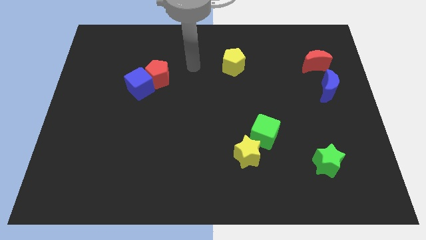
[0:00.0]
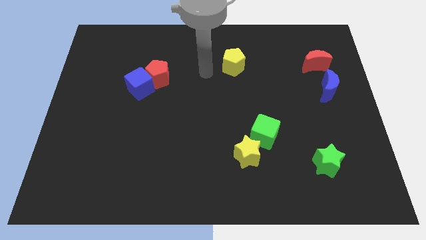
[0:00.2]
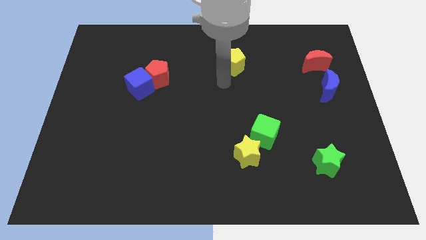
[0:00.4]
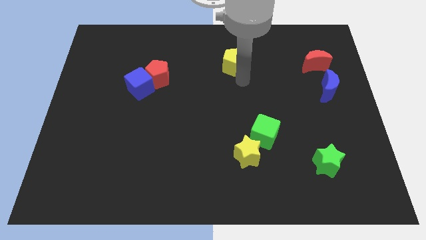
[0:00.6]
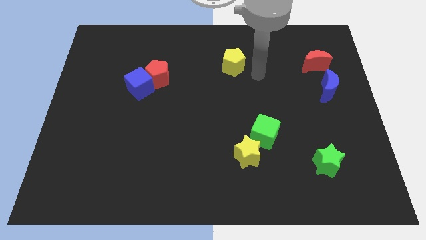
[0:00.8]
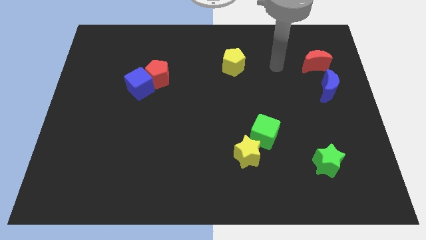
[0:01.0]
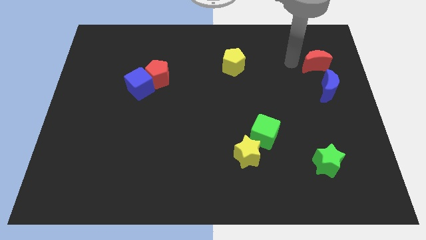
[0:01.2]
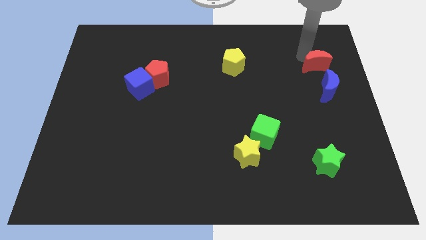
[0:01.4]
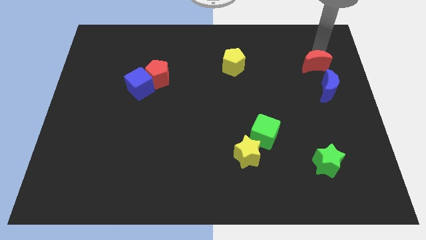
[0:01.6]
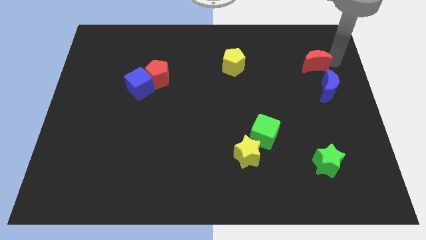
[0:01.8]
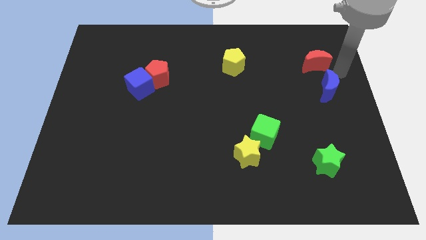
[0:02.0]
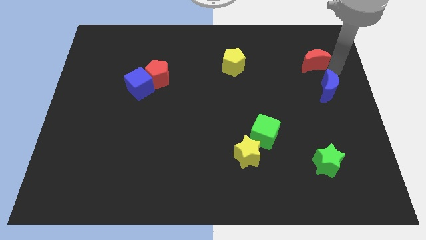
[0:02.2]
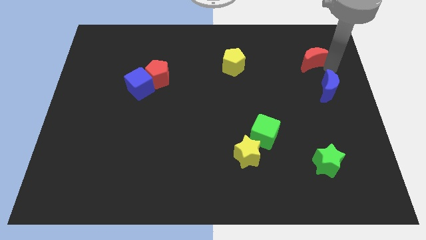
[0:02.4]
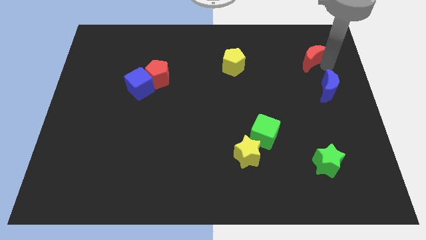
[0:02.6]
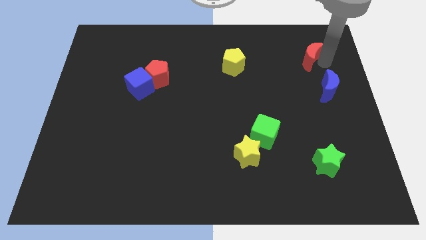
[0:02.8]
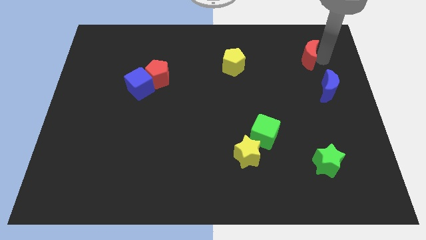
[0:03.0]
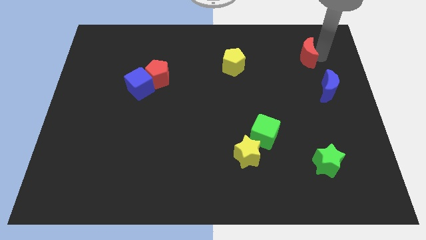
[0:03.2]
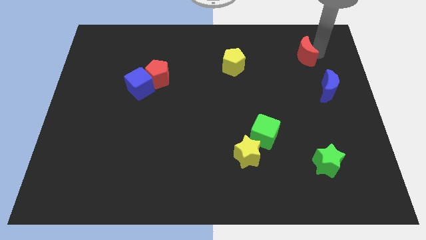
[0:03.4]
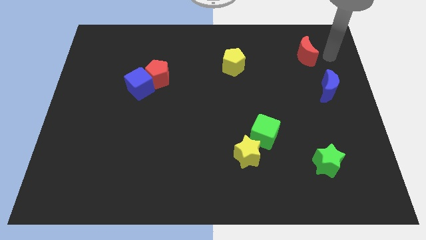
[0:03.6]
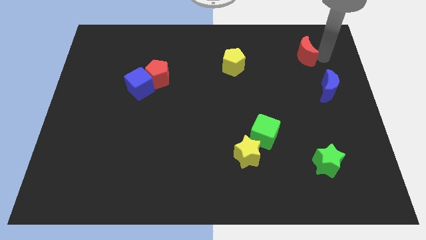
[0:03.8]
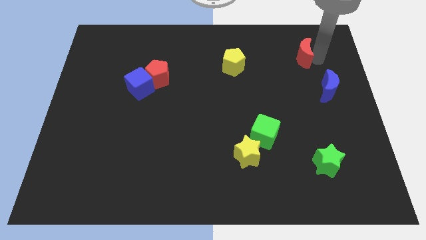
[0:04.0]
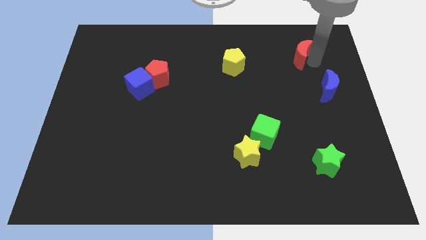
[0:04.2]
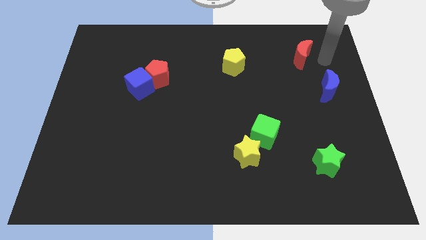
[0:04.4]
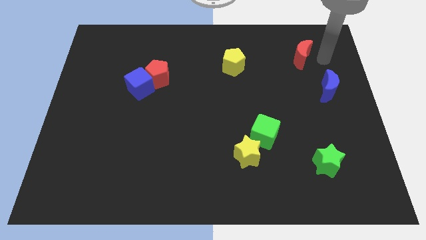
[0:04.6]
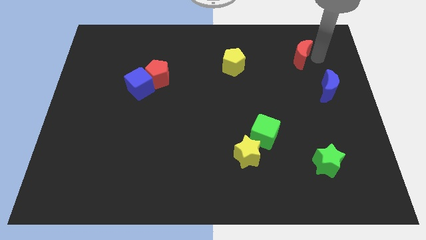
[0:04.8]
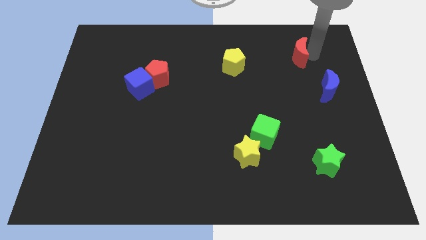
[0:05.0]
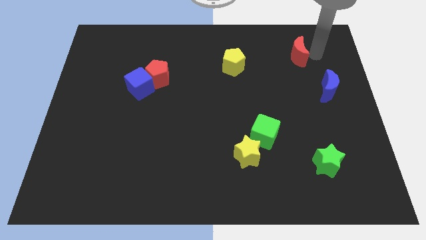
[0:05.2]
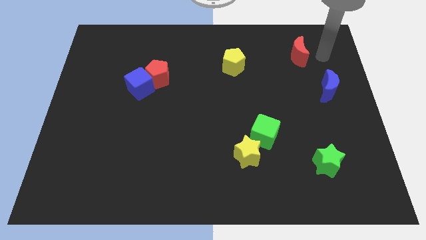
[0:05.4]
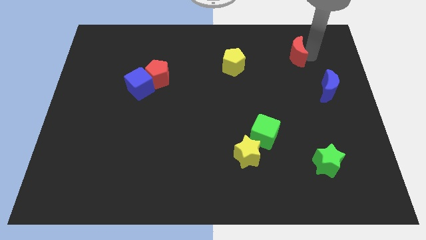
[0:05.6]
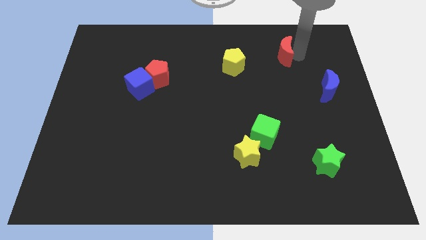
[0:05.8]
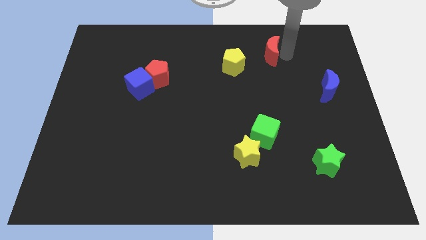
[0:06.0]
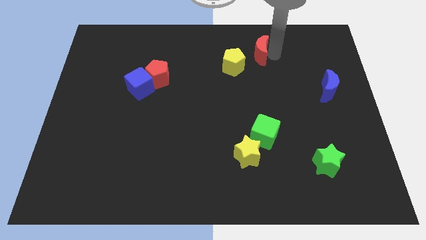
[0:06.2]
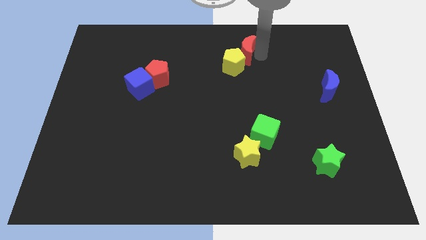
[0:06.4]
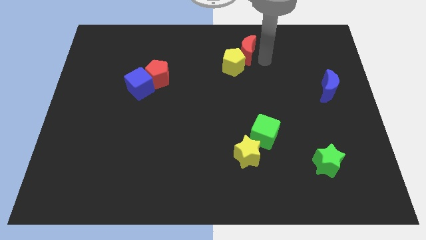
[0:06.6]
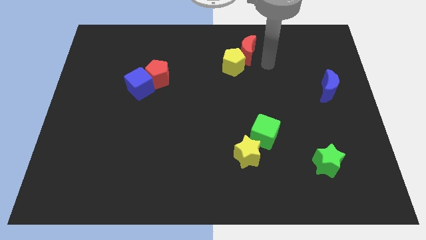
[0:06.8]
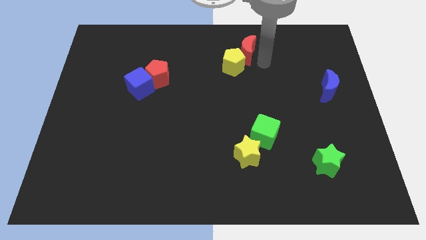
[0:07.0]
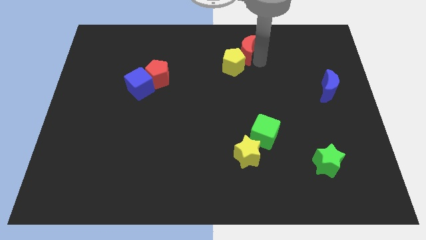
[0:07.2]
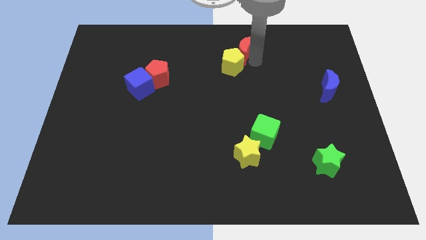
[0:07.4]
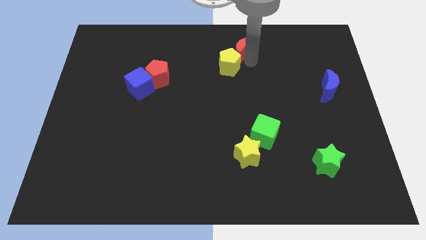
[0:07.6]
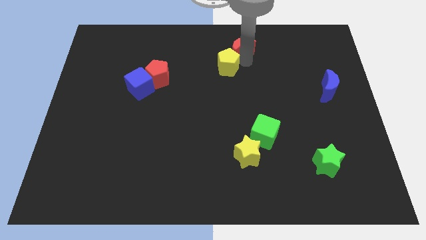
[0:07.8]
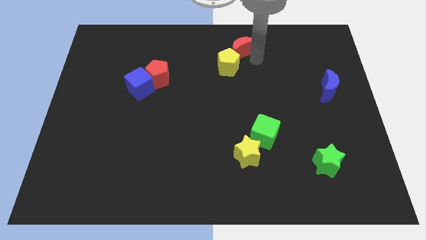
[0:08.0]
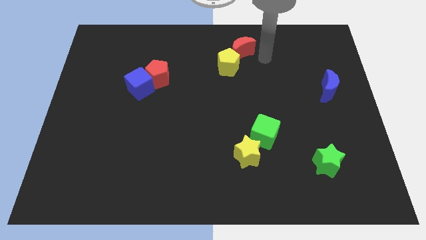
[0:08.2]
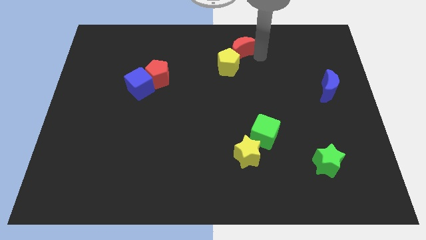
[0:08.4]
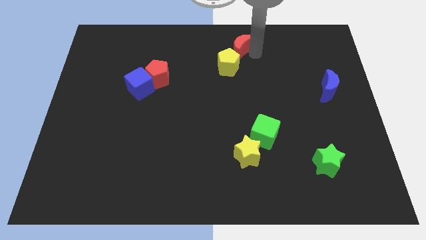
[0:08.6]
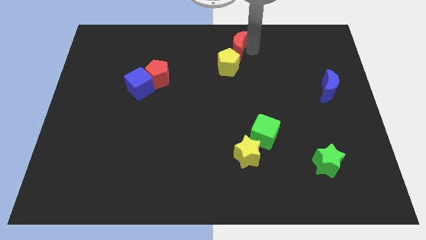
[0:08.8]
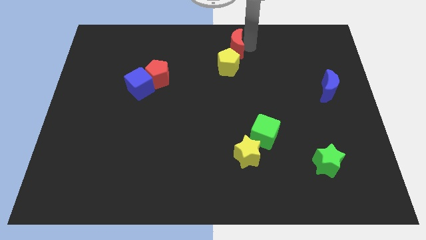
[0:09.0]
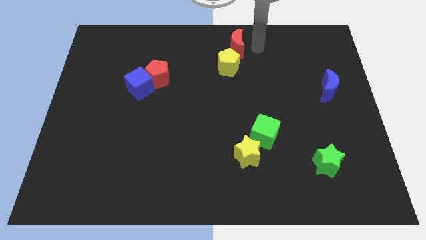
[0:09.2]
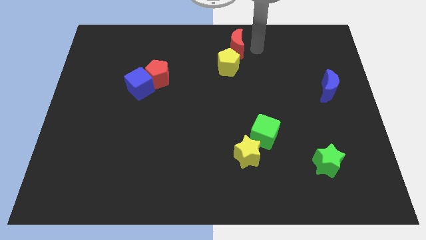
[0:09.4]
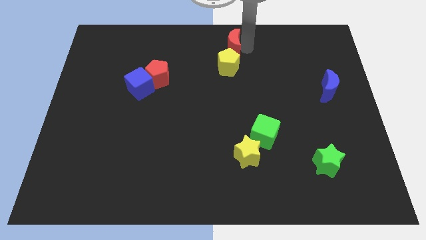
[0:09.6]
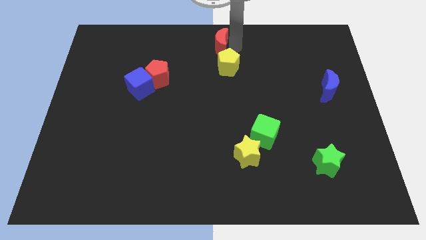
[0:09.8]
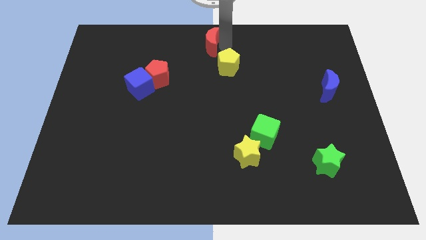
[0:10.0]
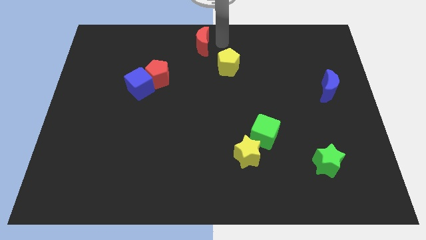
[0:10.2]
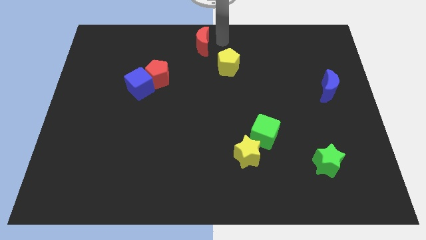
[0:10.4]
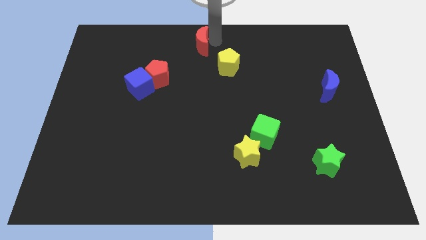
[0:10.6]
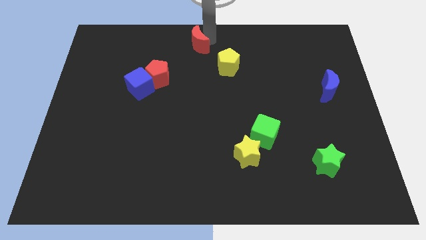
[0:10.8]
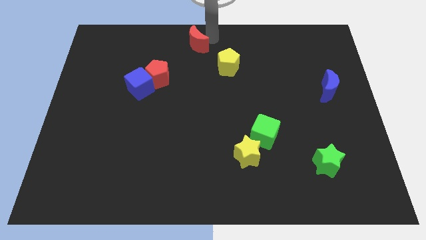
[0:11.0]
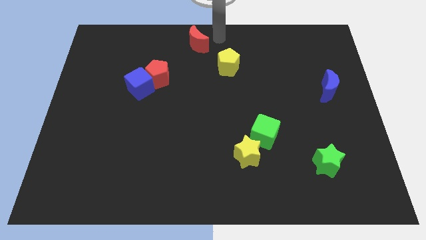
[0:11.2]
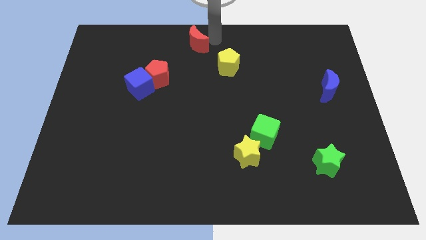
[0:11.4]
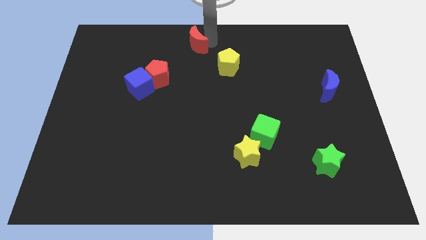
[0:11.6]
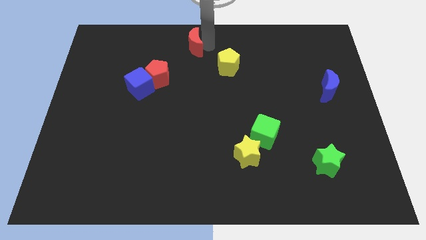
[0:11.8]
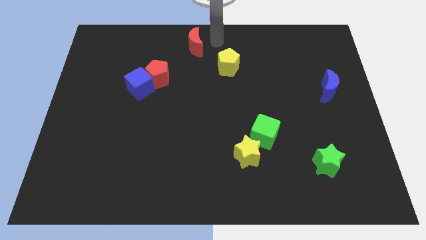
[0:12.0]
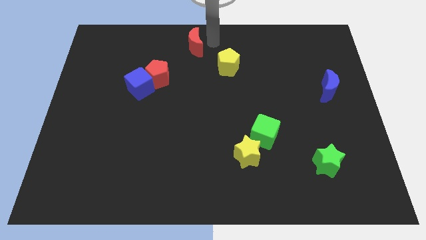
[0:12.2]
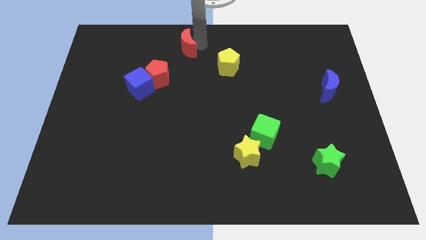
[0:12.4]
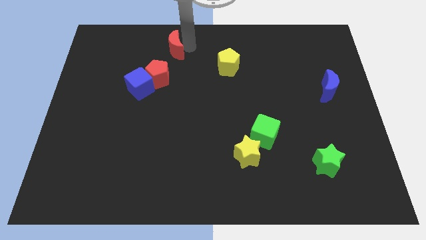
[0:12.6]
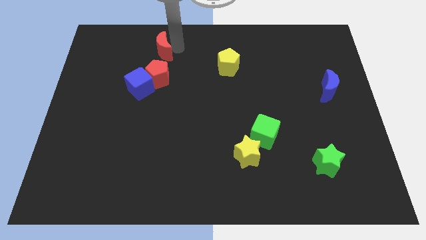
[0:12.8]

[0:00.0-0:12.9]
put the red moon to the top side of the blue cube
